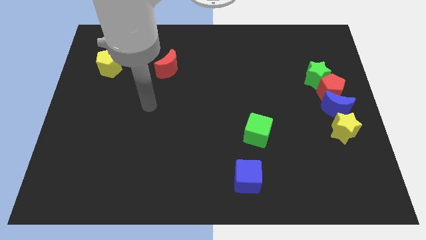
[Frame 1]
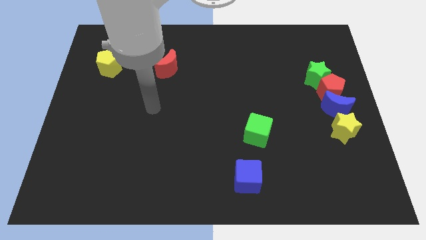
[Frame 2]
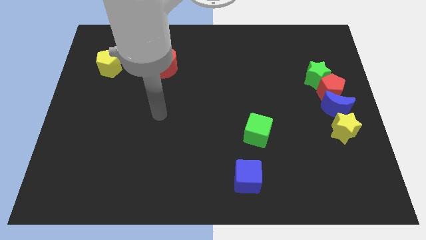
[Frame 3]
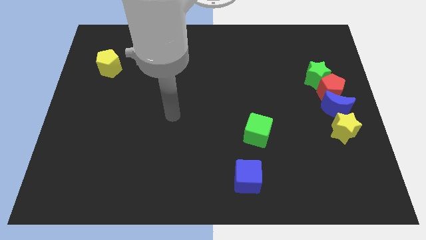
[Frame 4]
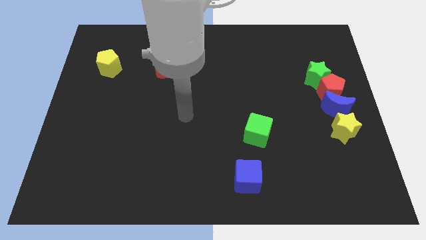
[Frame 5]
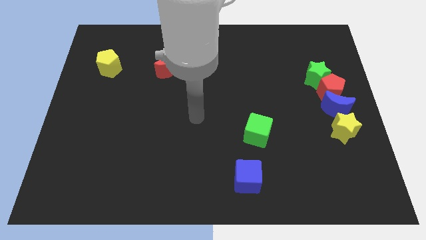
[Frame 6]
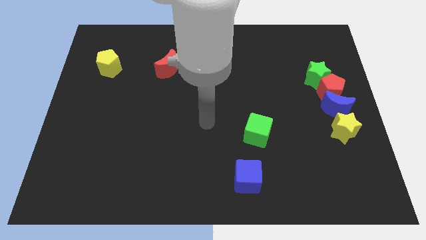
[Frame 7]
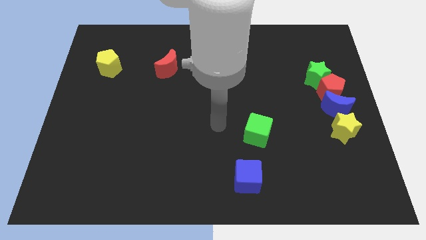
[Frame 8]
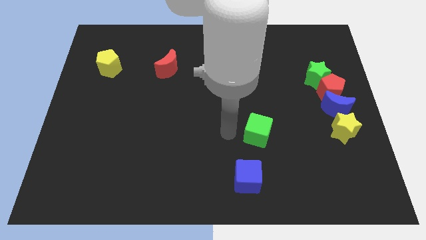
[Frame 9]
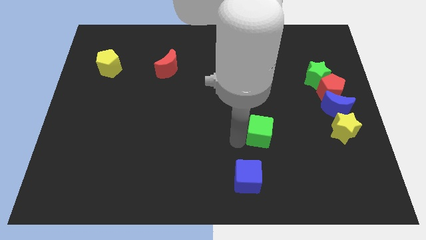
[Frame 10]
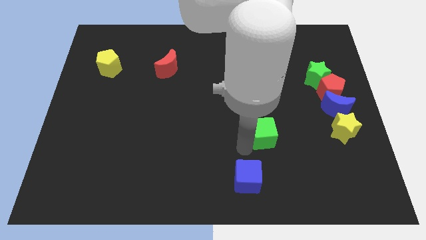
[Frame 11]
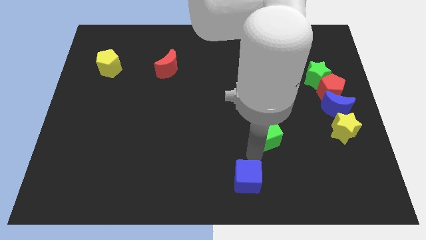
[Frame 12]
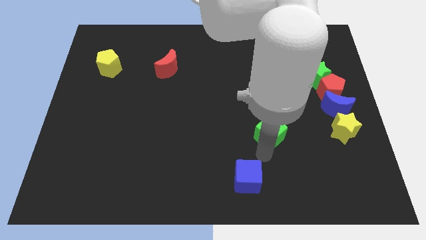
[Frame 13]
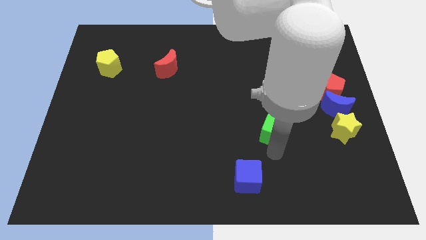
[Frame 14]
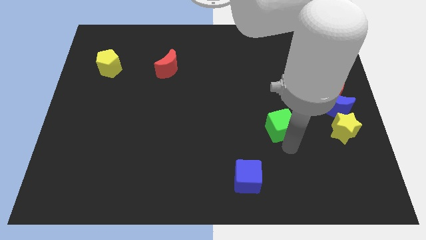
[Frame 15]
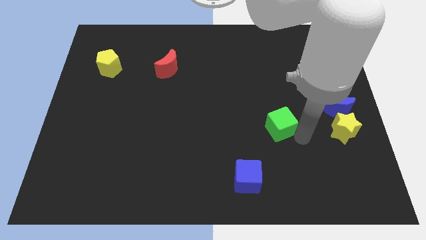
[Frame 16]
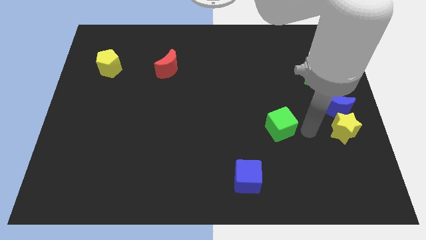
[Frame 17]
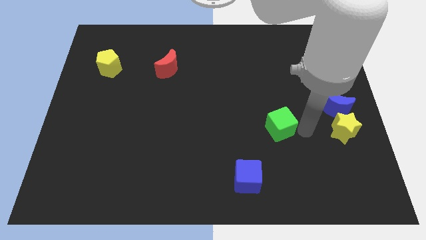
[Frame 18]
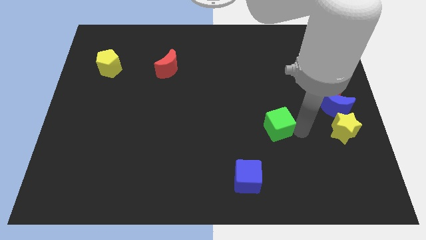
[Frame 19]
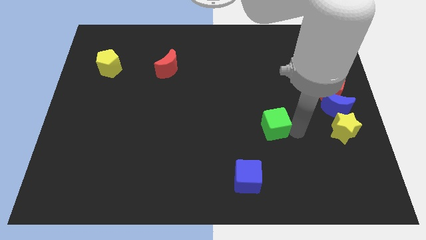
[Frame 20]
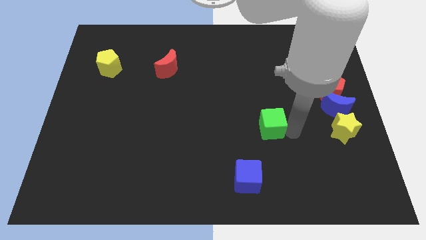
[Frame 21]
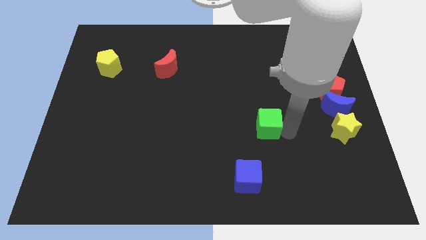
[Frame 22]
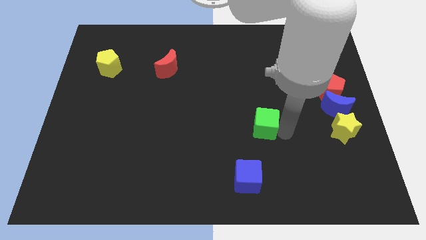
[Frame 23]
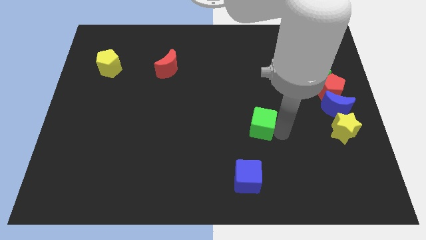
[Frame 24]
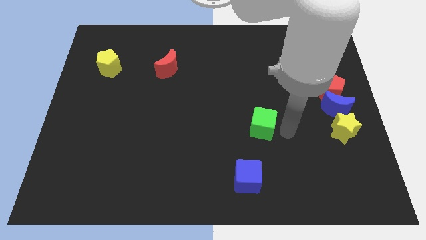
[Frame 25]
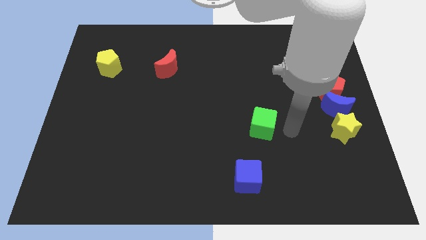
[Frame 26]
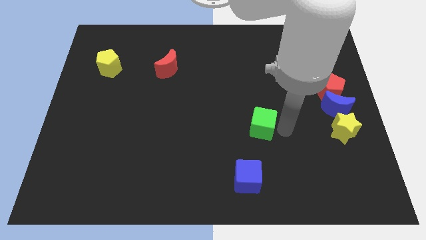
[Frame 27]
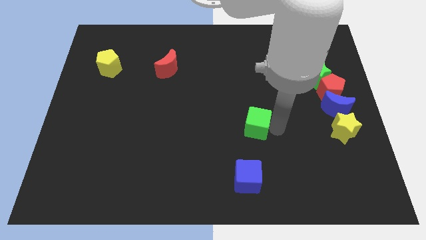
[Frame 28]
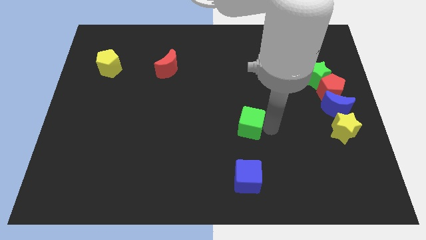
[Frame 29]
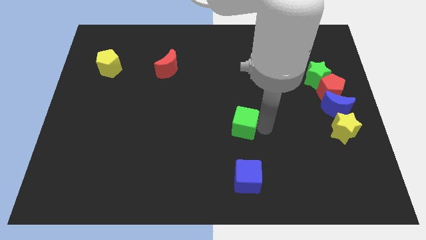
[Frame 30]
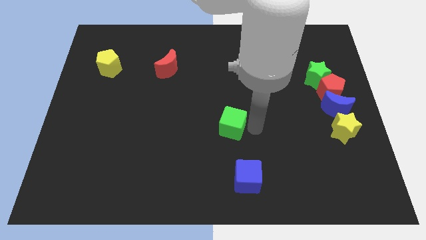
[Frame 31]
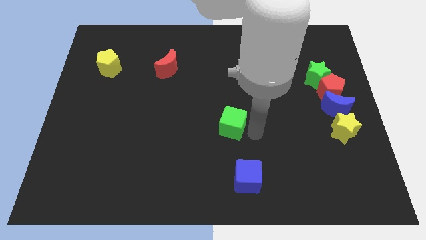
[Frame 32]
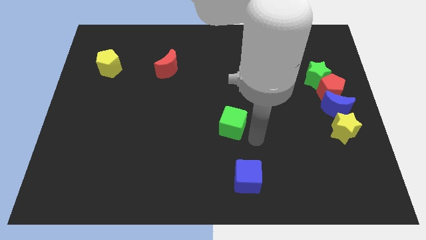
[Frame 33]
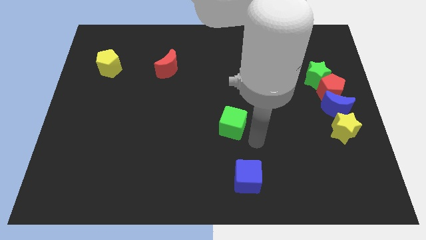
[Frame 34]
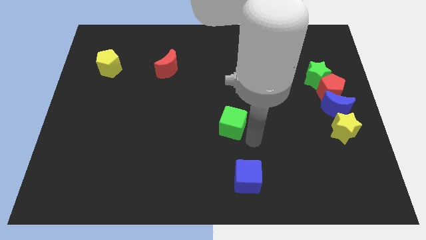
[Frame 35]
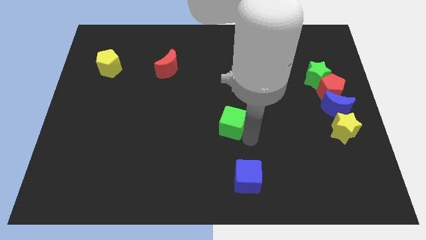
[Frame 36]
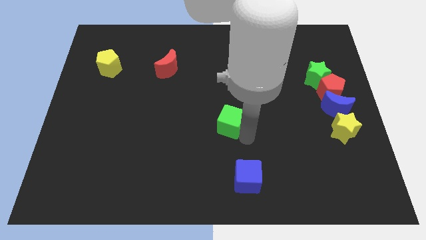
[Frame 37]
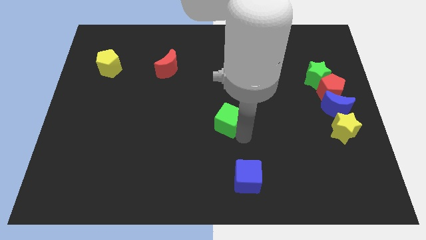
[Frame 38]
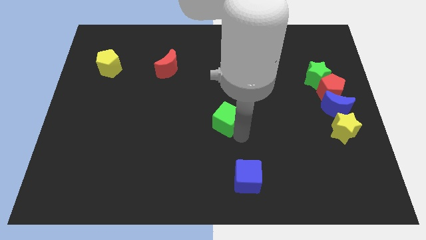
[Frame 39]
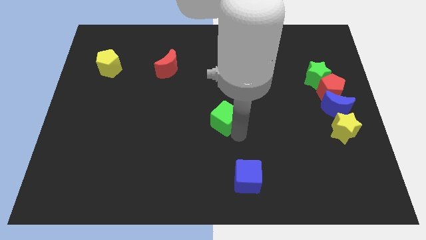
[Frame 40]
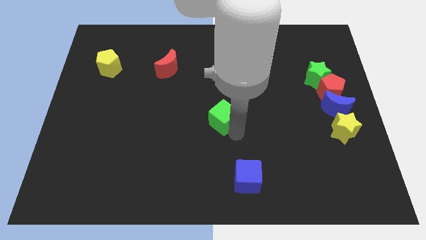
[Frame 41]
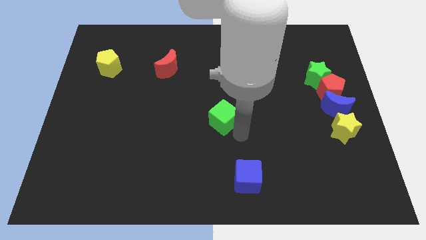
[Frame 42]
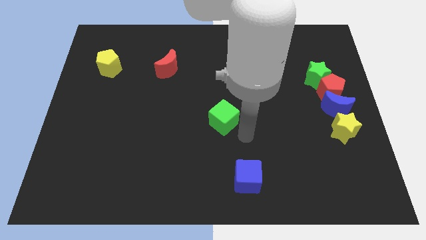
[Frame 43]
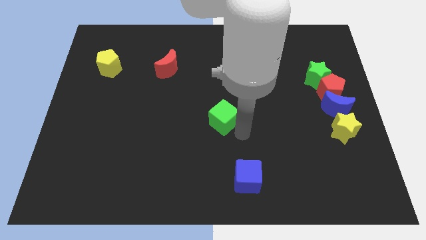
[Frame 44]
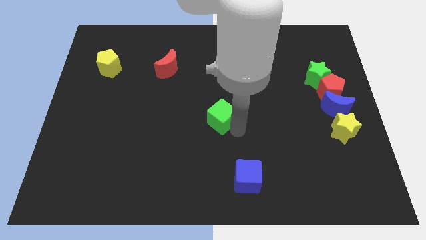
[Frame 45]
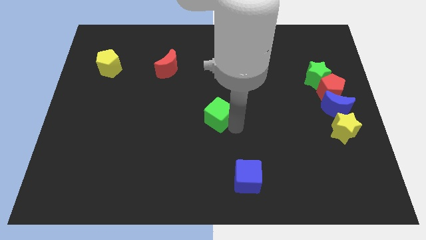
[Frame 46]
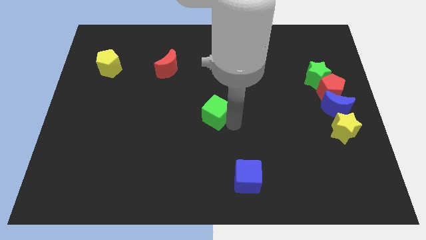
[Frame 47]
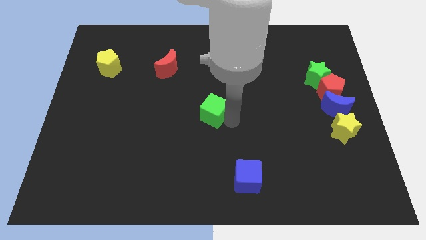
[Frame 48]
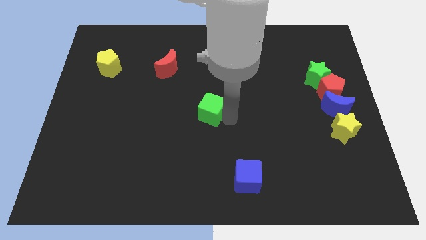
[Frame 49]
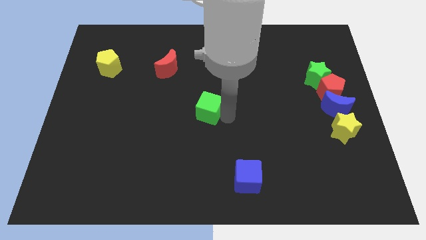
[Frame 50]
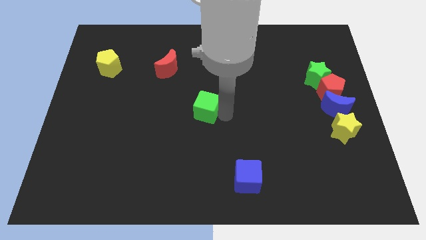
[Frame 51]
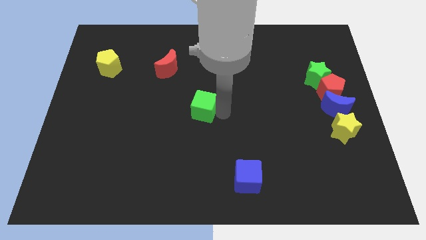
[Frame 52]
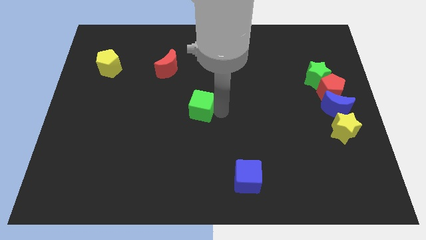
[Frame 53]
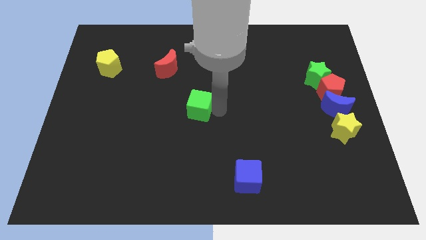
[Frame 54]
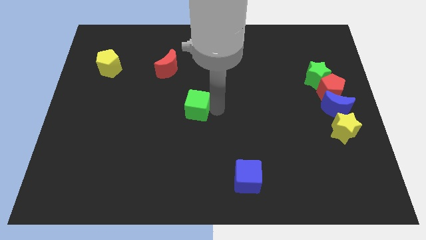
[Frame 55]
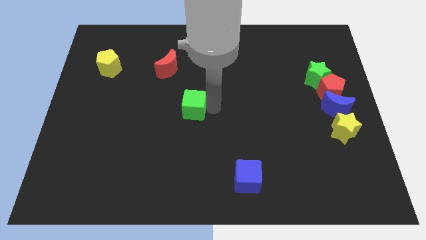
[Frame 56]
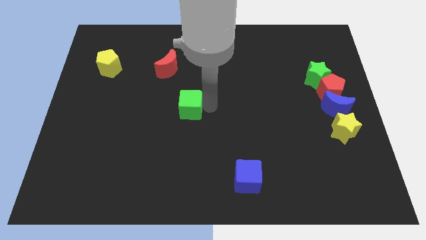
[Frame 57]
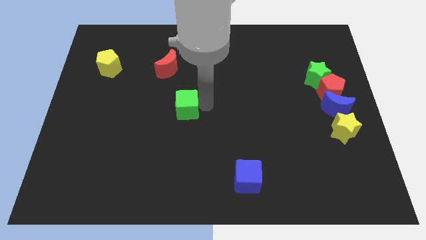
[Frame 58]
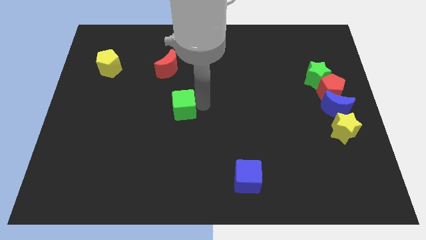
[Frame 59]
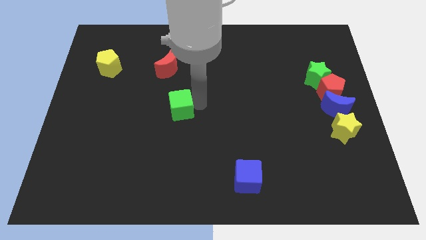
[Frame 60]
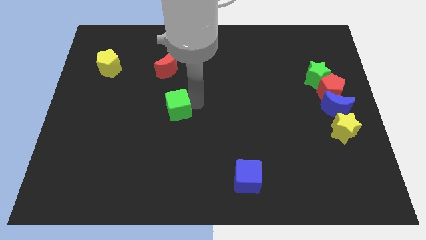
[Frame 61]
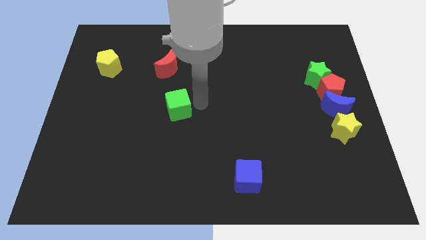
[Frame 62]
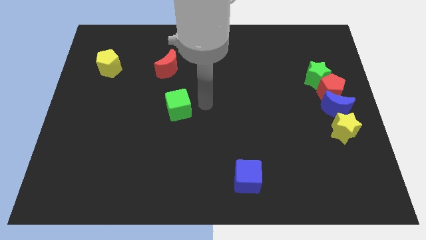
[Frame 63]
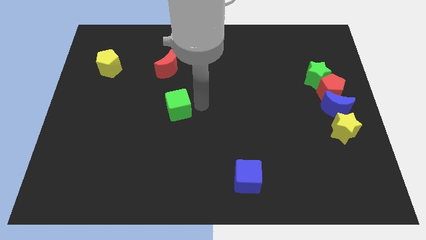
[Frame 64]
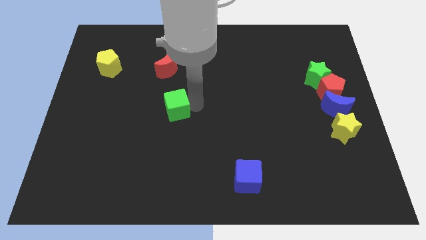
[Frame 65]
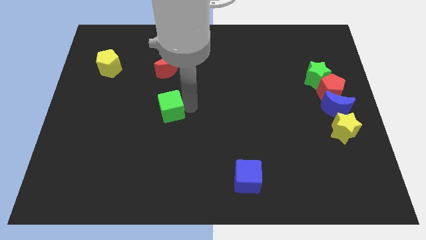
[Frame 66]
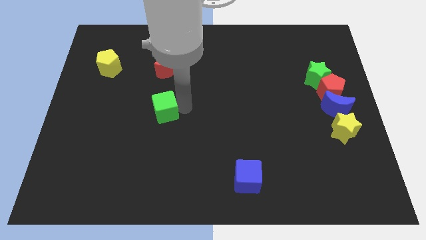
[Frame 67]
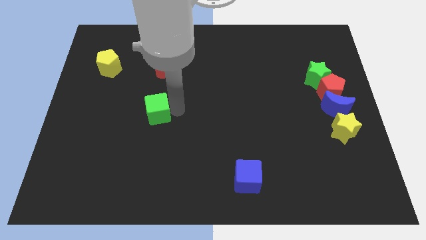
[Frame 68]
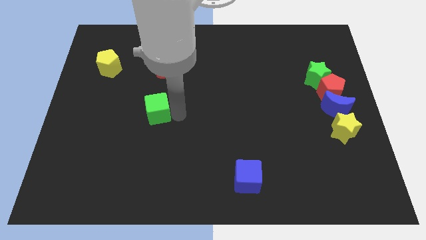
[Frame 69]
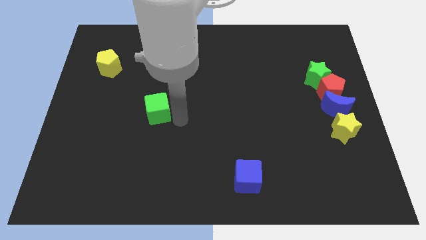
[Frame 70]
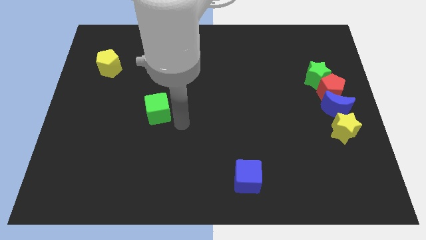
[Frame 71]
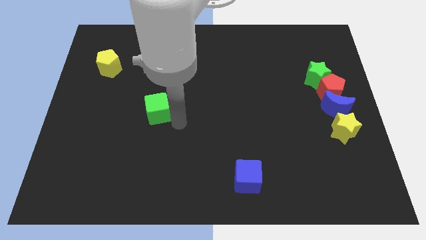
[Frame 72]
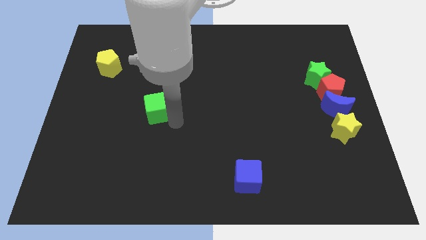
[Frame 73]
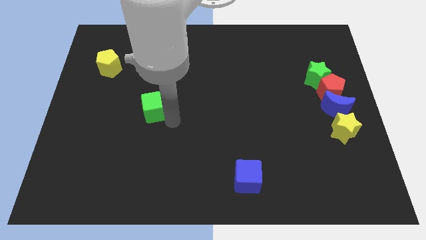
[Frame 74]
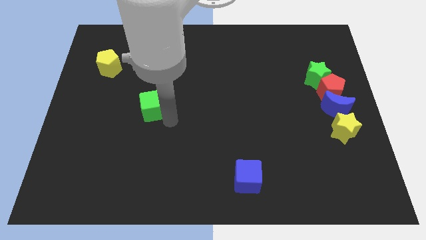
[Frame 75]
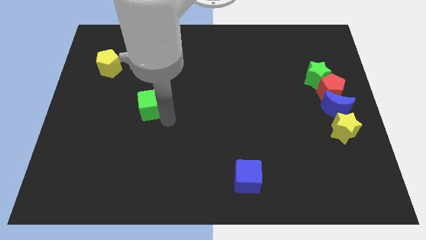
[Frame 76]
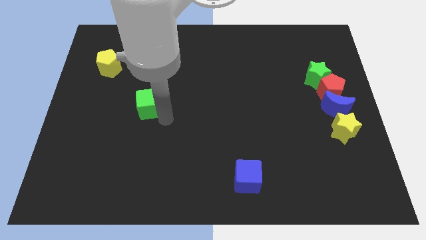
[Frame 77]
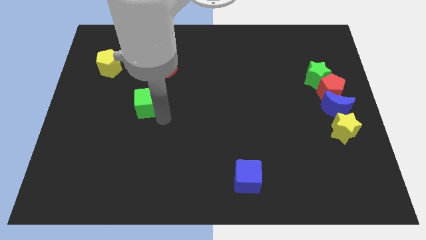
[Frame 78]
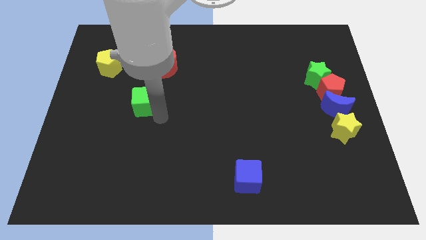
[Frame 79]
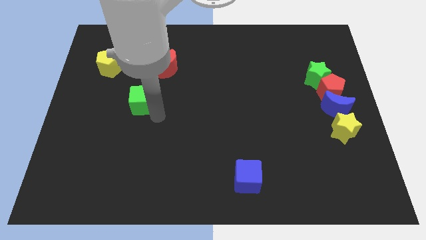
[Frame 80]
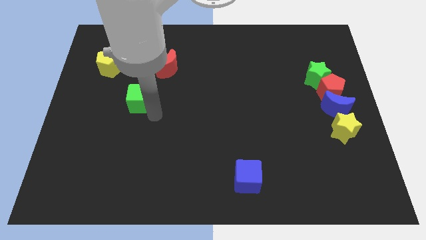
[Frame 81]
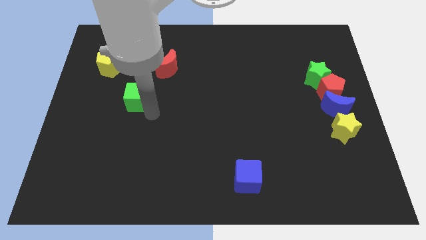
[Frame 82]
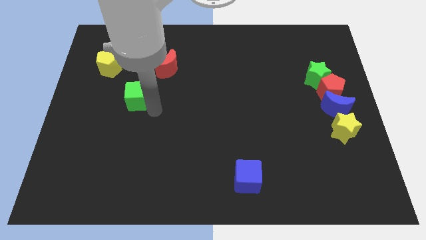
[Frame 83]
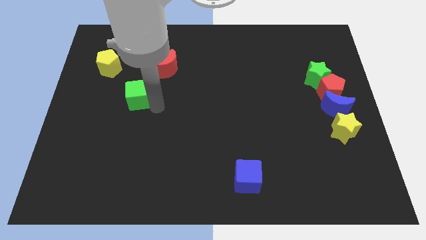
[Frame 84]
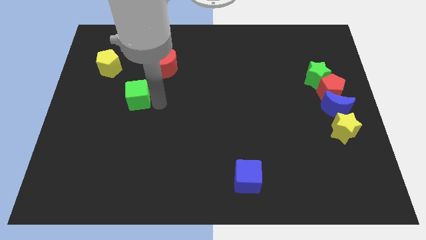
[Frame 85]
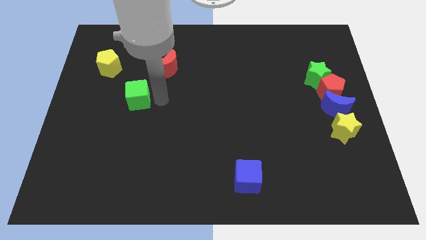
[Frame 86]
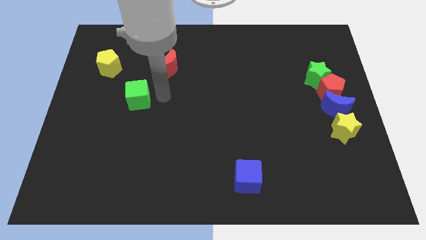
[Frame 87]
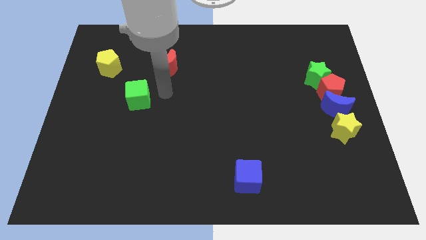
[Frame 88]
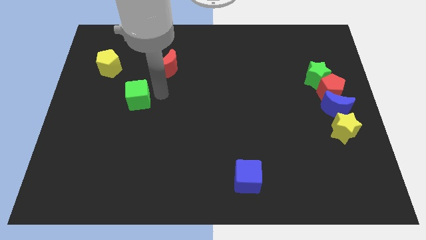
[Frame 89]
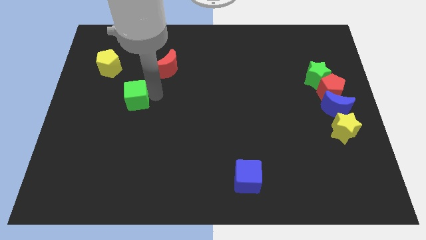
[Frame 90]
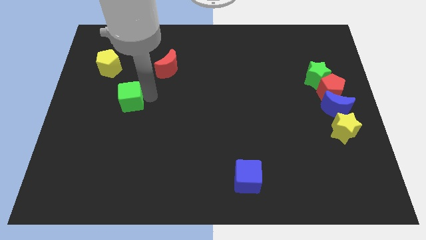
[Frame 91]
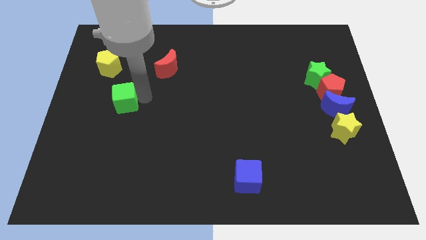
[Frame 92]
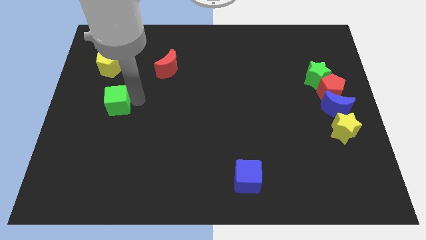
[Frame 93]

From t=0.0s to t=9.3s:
move the green cube below the yellow pentagon
